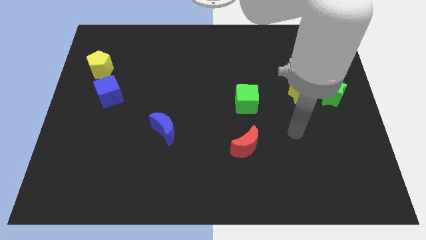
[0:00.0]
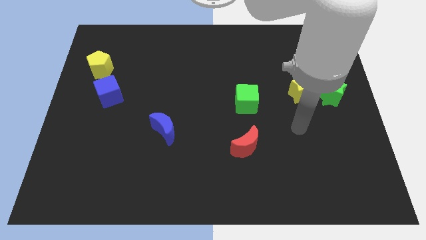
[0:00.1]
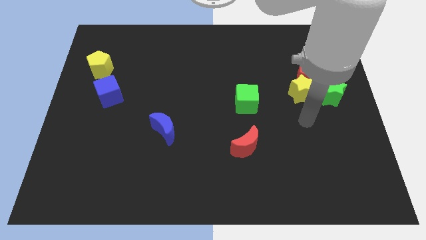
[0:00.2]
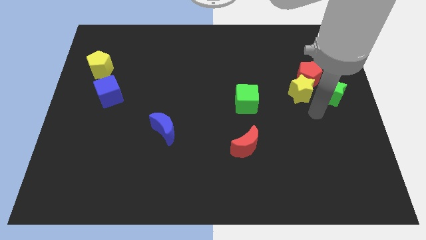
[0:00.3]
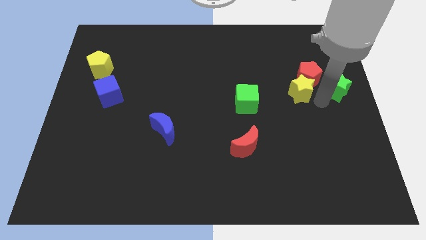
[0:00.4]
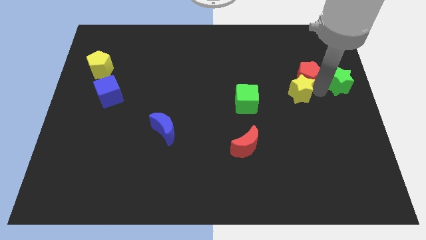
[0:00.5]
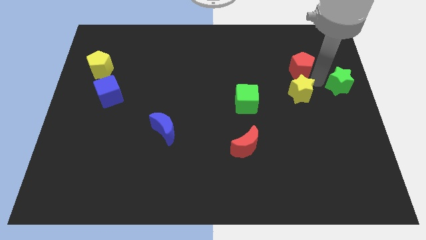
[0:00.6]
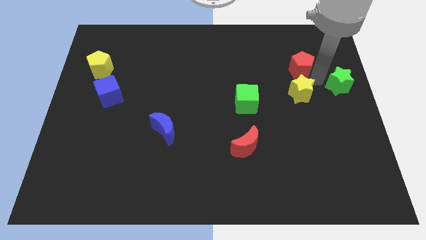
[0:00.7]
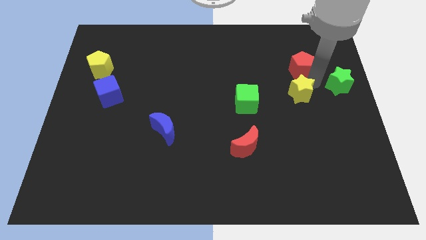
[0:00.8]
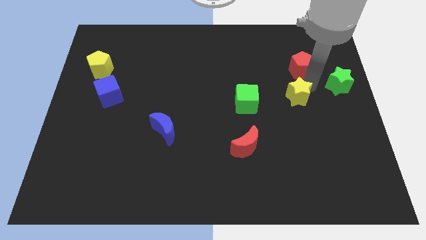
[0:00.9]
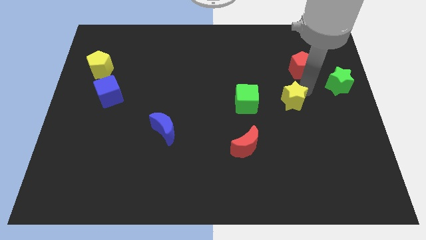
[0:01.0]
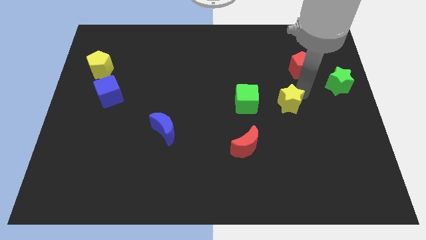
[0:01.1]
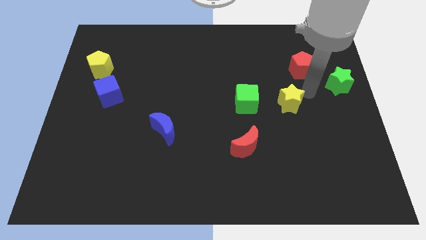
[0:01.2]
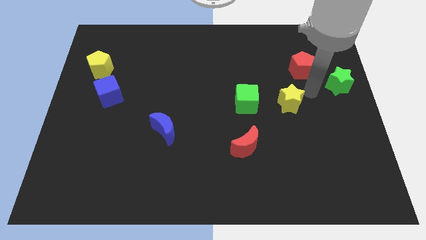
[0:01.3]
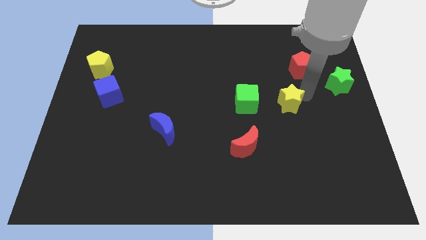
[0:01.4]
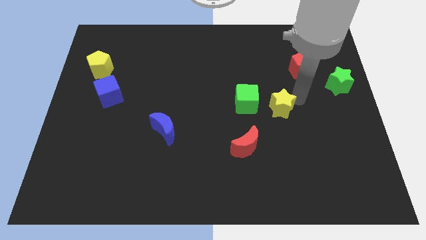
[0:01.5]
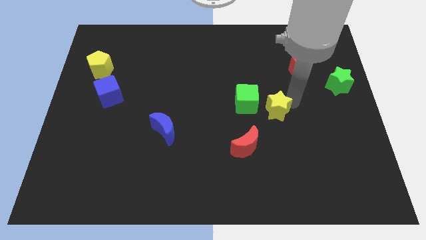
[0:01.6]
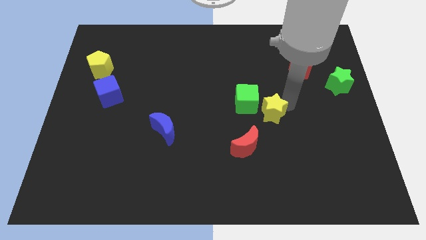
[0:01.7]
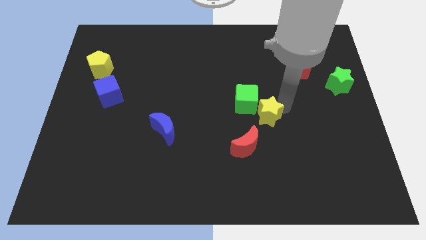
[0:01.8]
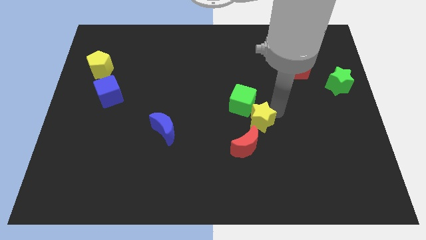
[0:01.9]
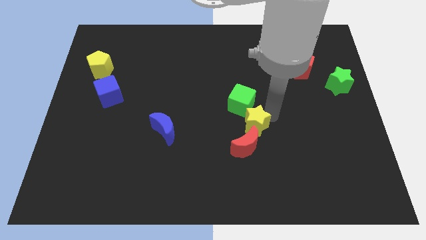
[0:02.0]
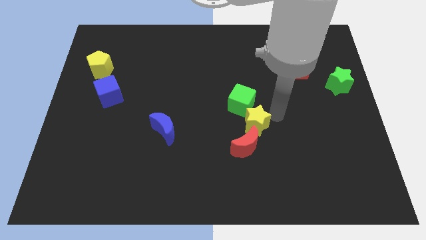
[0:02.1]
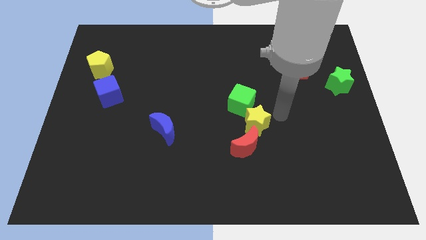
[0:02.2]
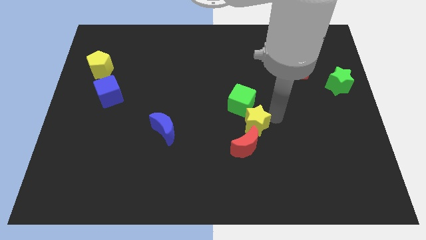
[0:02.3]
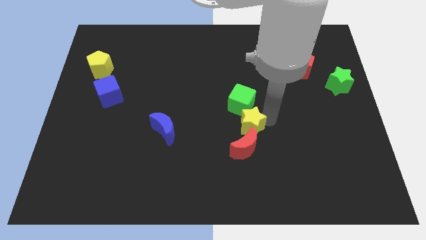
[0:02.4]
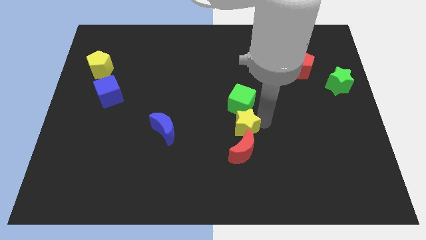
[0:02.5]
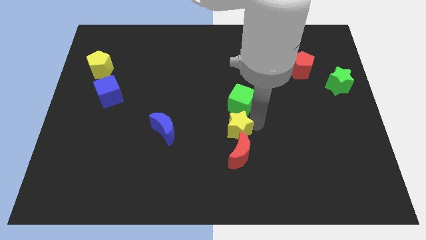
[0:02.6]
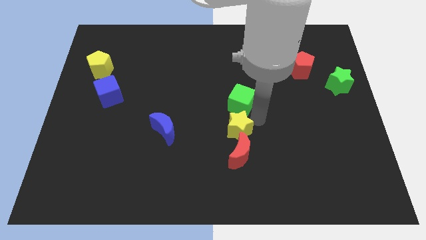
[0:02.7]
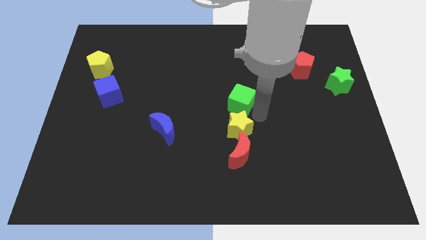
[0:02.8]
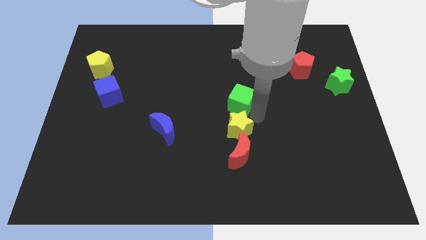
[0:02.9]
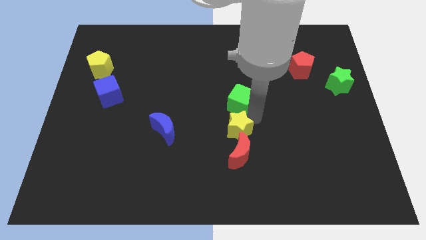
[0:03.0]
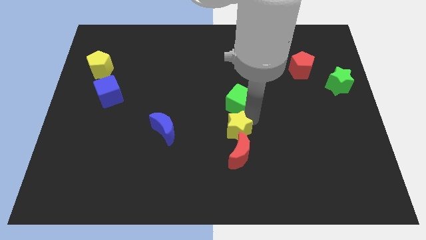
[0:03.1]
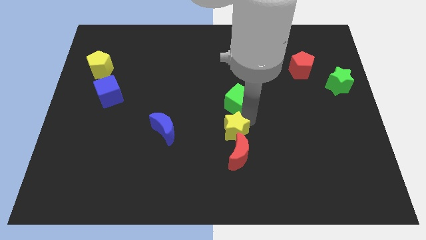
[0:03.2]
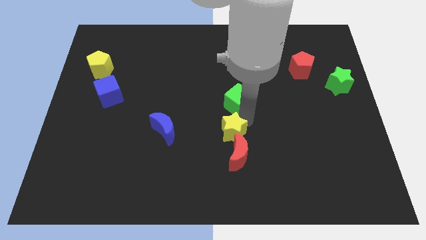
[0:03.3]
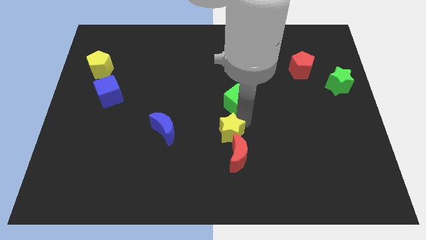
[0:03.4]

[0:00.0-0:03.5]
push the yellow star downwards and to the left

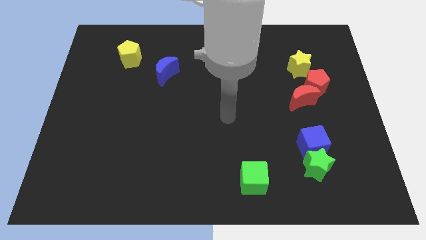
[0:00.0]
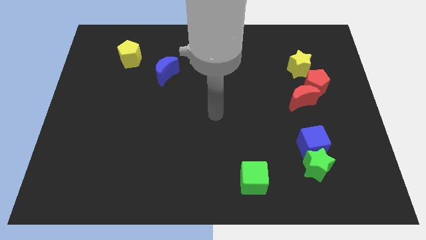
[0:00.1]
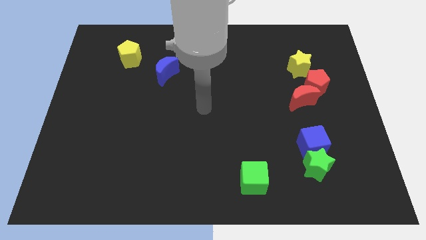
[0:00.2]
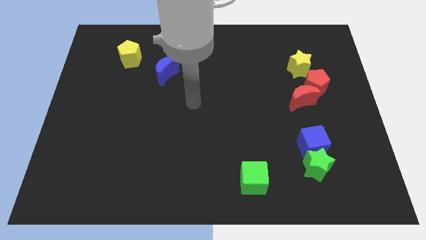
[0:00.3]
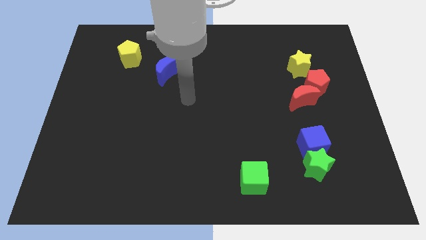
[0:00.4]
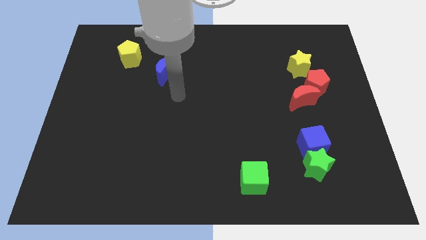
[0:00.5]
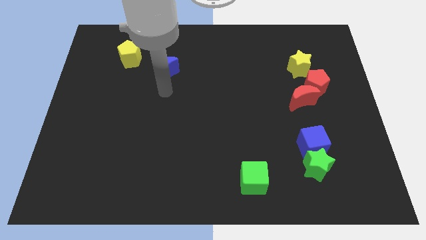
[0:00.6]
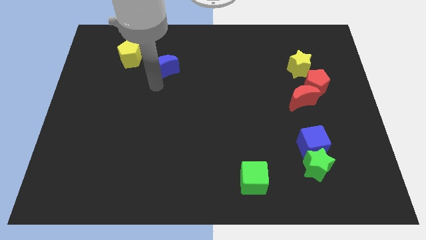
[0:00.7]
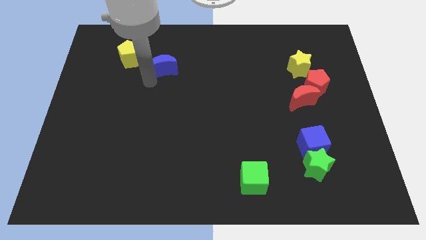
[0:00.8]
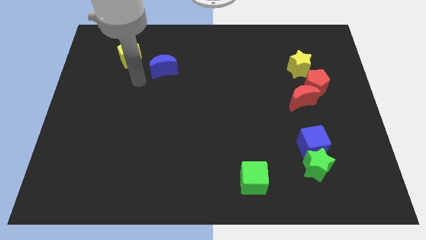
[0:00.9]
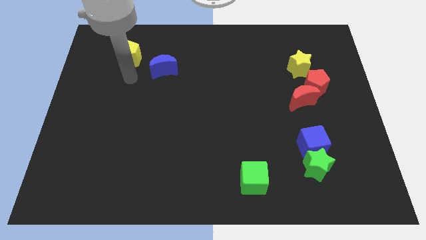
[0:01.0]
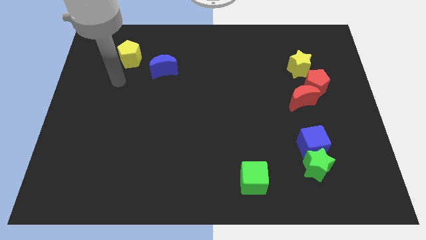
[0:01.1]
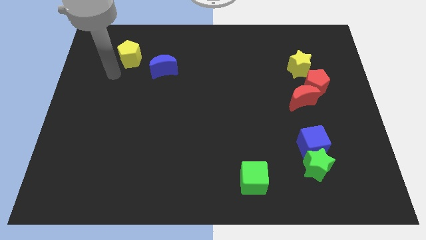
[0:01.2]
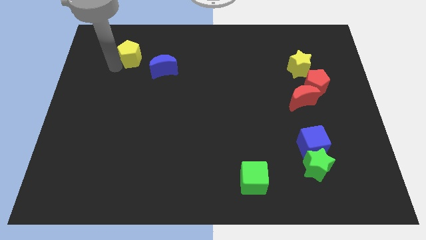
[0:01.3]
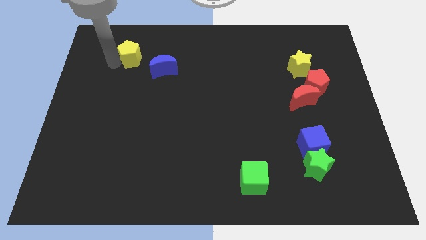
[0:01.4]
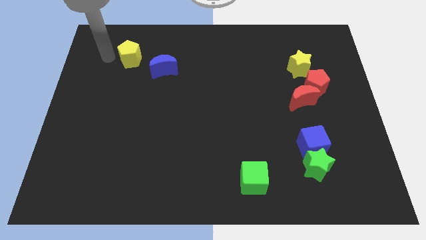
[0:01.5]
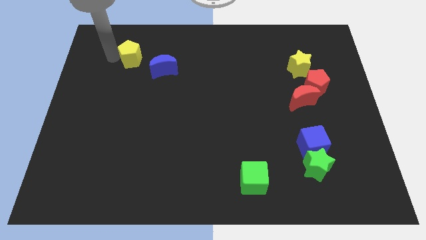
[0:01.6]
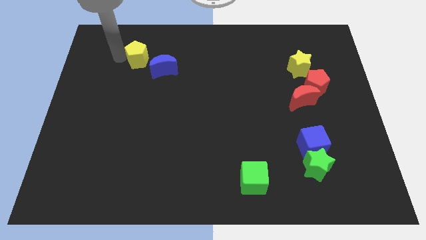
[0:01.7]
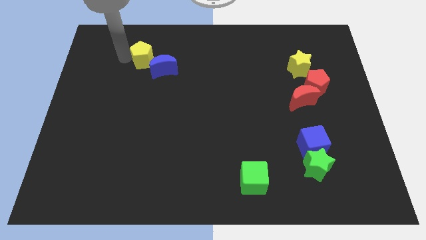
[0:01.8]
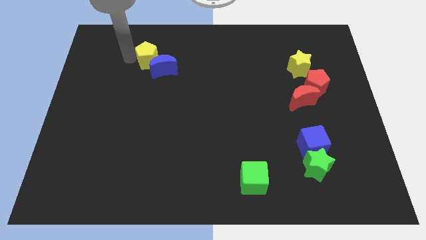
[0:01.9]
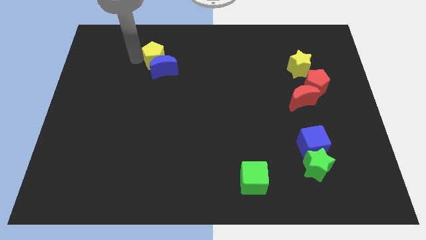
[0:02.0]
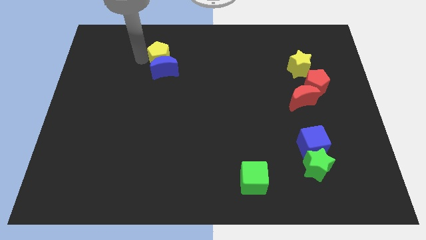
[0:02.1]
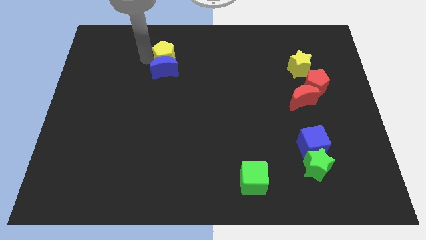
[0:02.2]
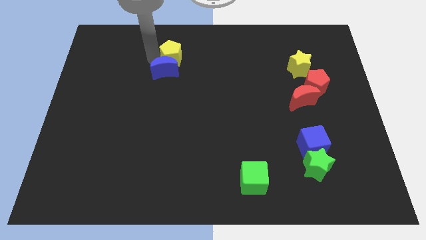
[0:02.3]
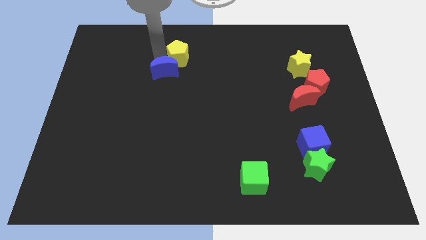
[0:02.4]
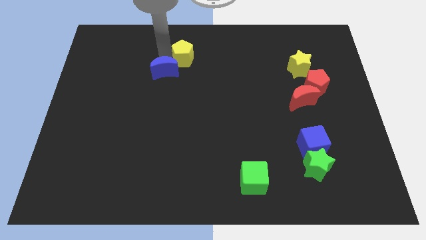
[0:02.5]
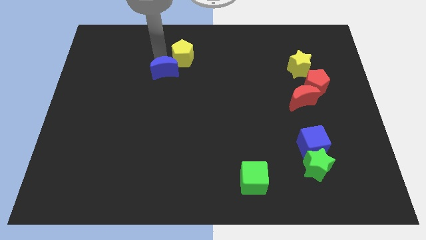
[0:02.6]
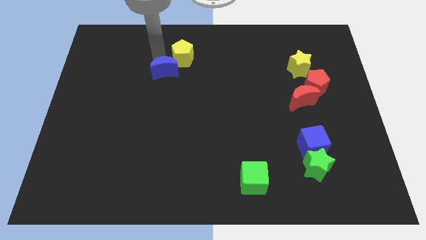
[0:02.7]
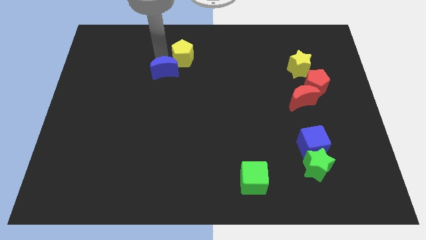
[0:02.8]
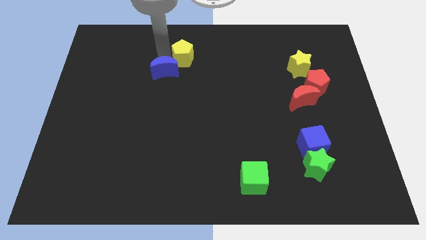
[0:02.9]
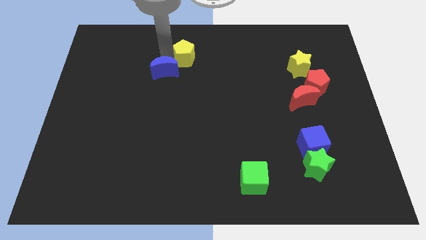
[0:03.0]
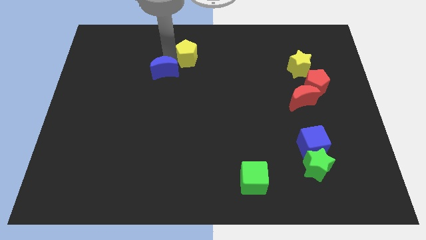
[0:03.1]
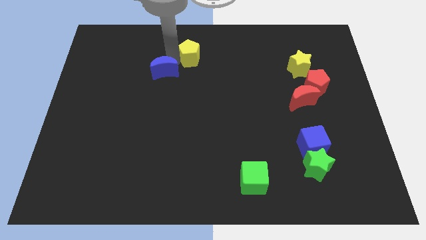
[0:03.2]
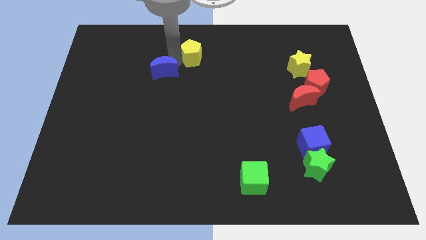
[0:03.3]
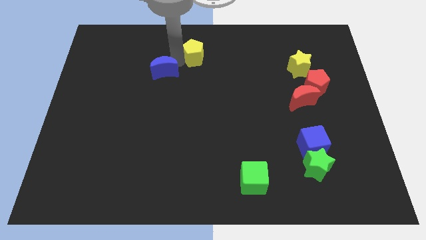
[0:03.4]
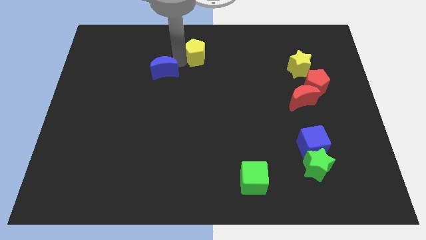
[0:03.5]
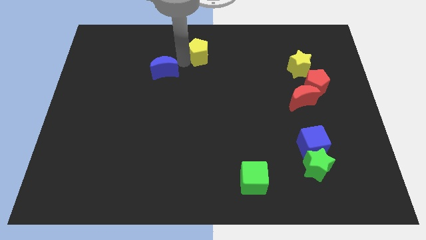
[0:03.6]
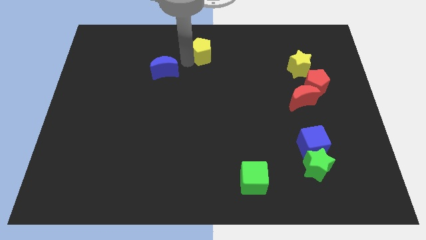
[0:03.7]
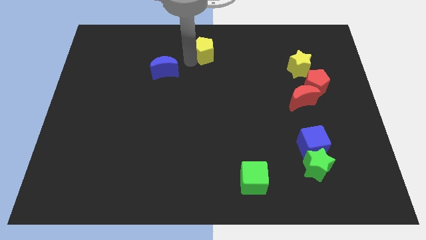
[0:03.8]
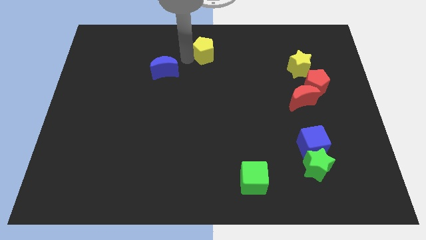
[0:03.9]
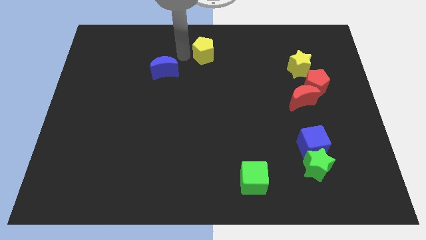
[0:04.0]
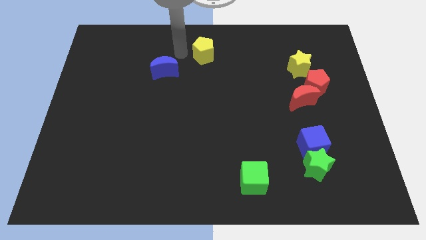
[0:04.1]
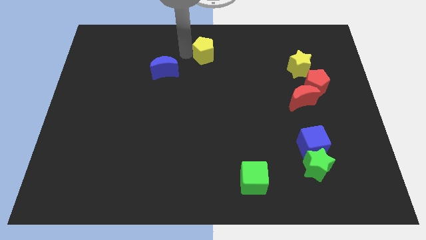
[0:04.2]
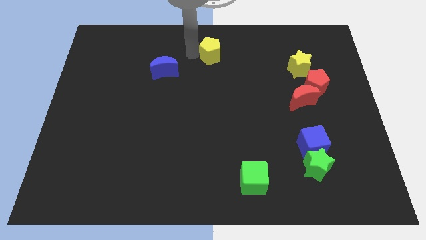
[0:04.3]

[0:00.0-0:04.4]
slide the yellow pentagon right

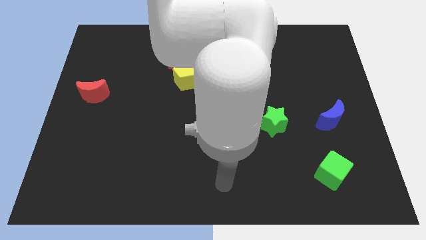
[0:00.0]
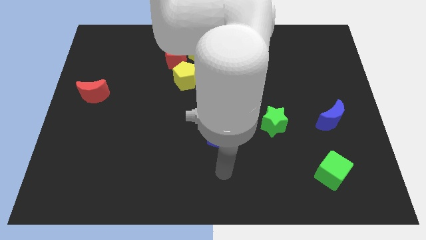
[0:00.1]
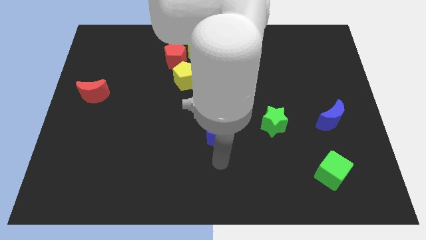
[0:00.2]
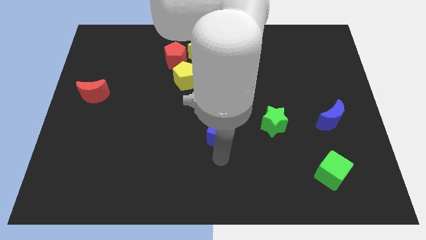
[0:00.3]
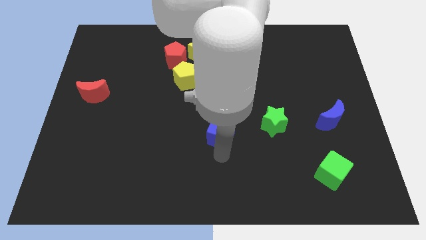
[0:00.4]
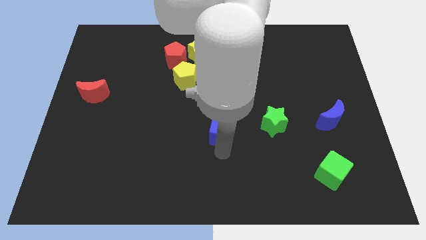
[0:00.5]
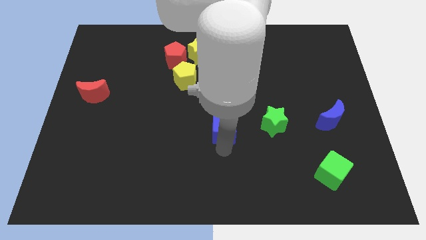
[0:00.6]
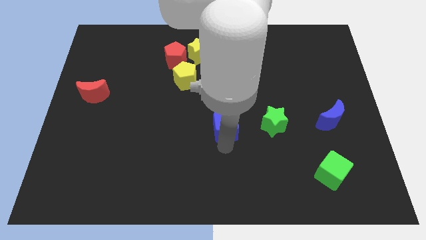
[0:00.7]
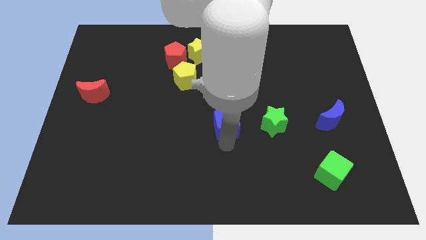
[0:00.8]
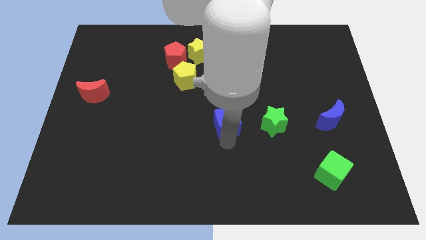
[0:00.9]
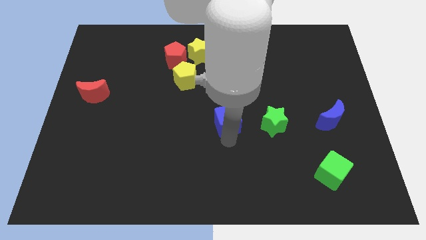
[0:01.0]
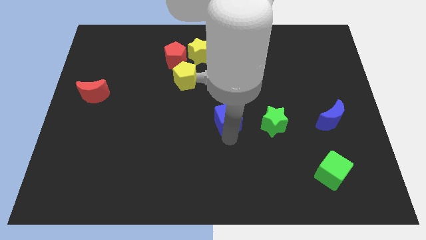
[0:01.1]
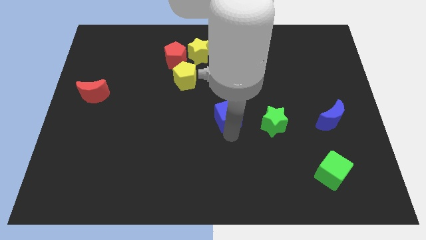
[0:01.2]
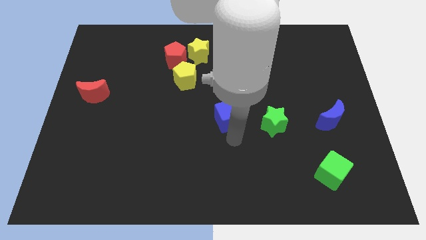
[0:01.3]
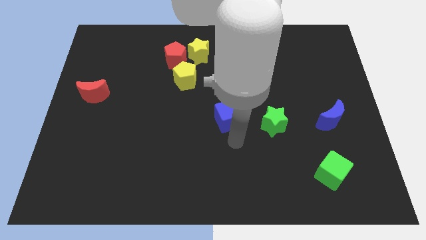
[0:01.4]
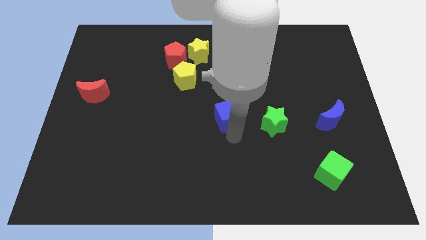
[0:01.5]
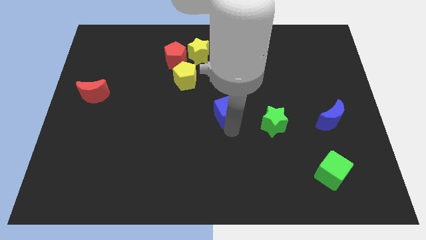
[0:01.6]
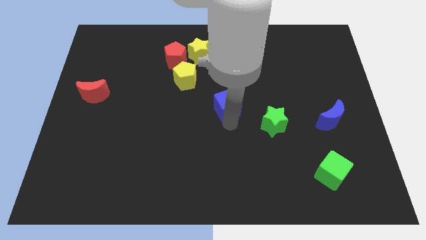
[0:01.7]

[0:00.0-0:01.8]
move the blue cube upwards a little
